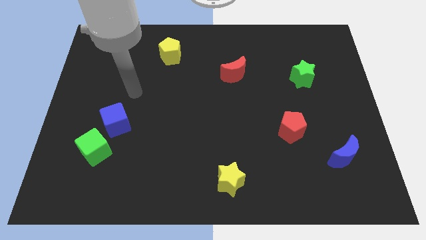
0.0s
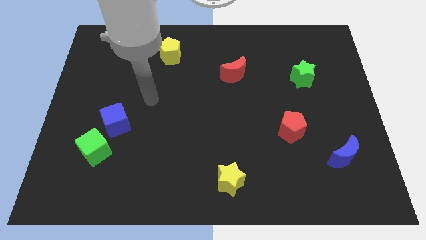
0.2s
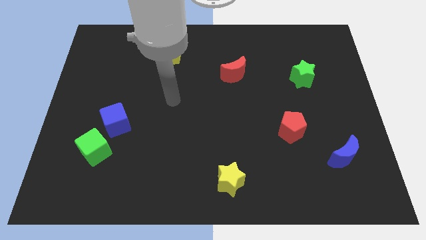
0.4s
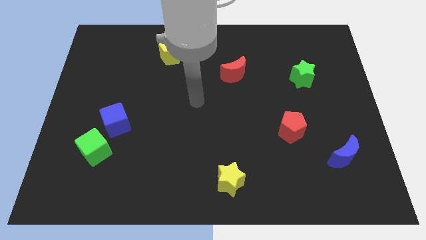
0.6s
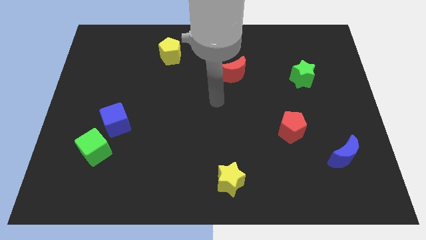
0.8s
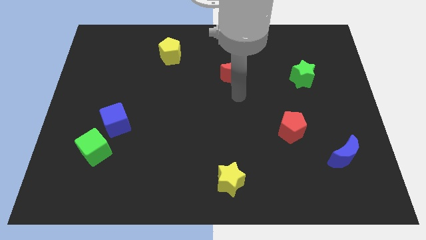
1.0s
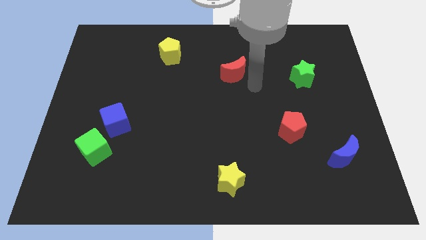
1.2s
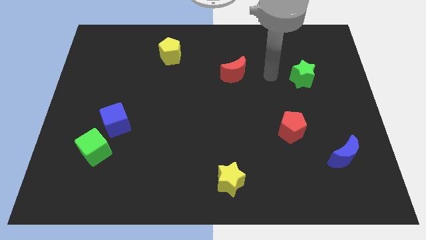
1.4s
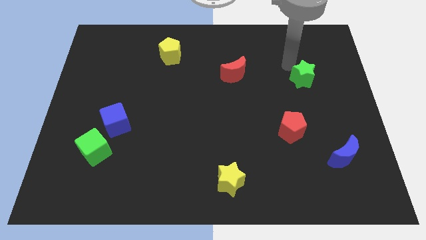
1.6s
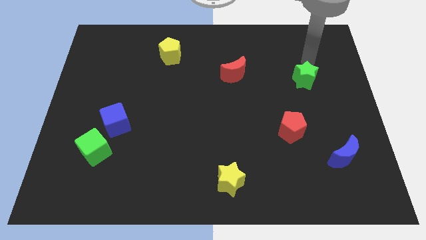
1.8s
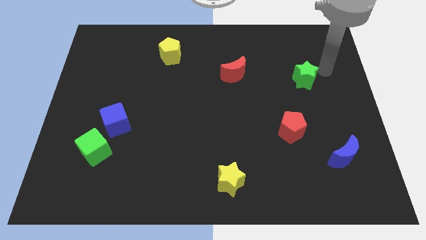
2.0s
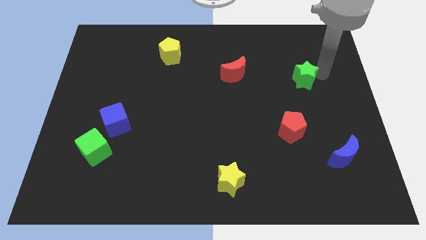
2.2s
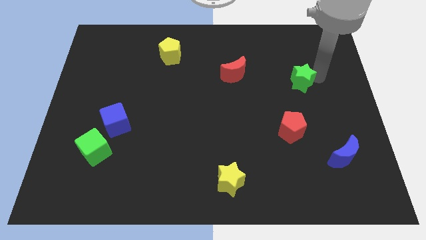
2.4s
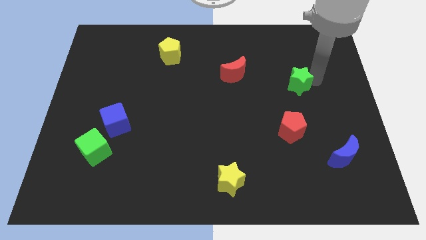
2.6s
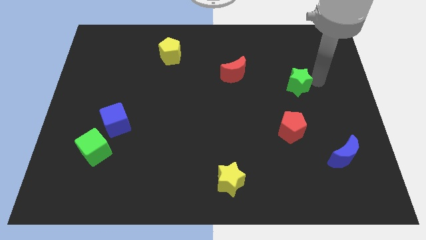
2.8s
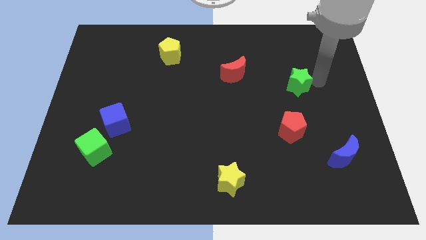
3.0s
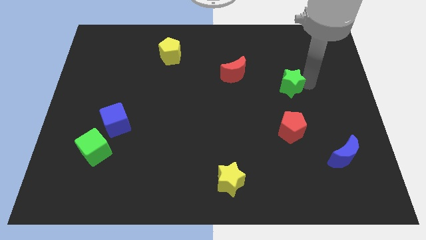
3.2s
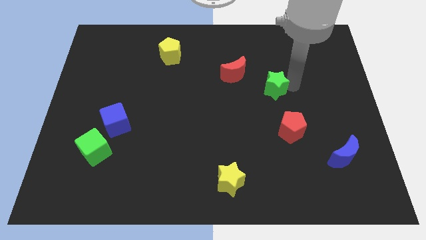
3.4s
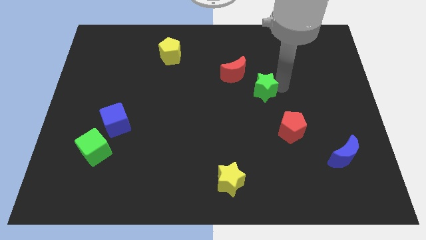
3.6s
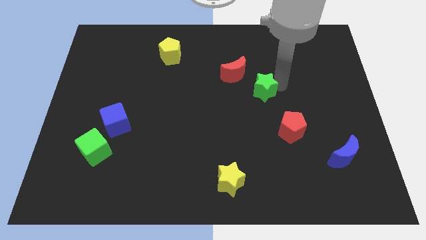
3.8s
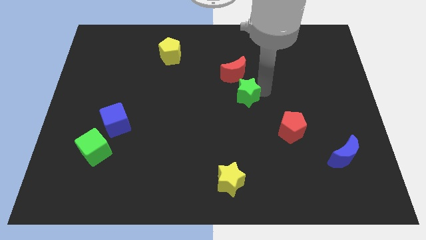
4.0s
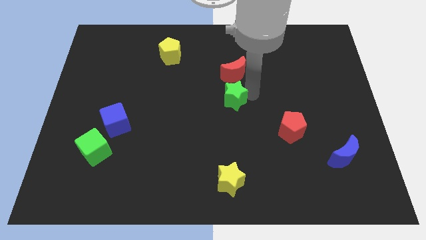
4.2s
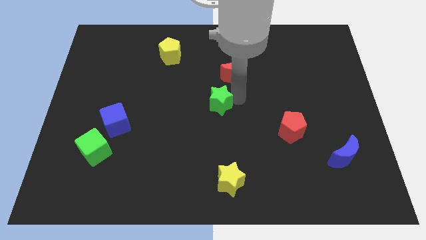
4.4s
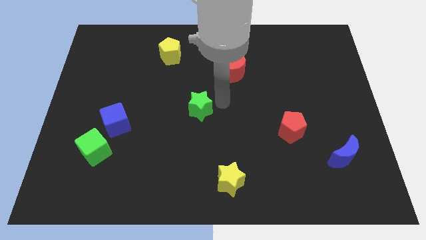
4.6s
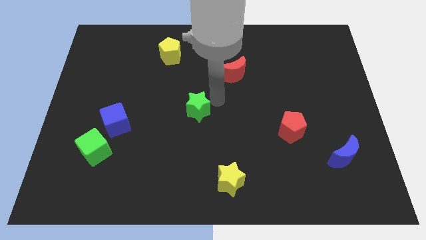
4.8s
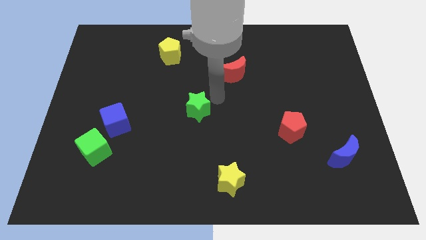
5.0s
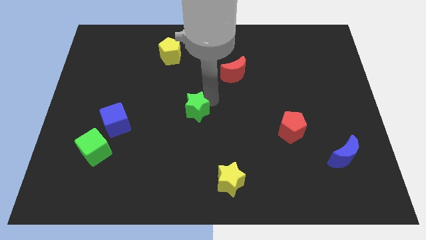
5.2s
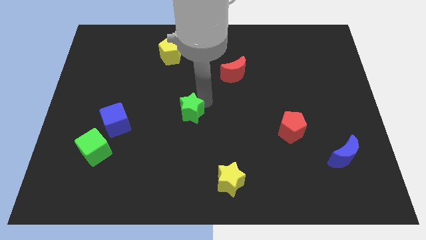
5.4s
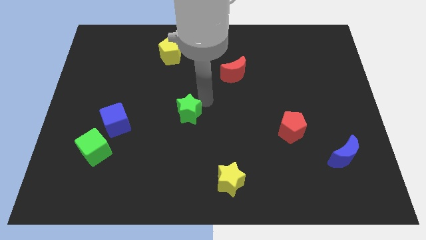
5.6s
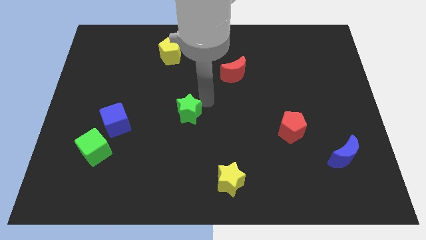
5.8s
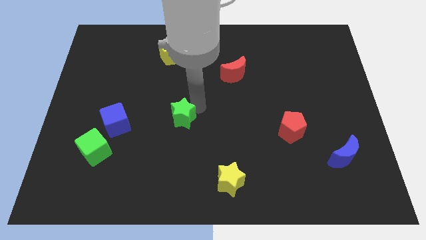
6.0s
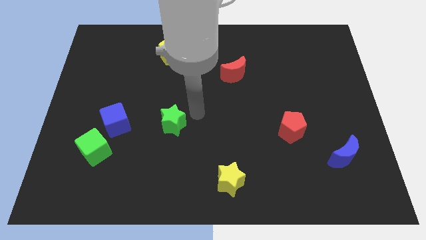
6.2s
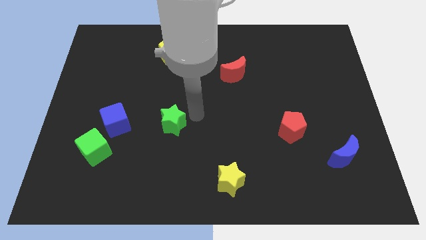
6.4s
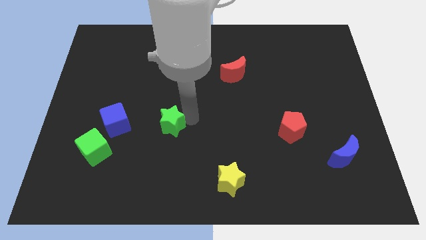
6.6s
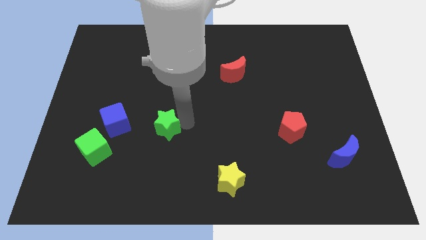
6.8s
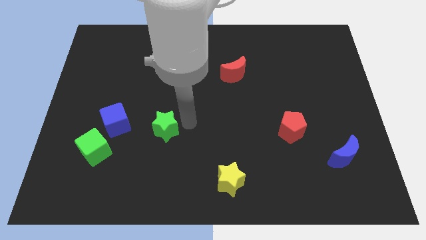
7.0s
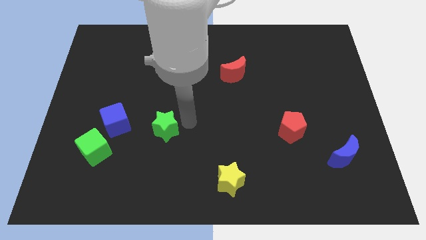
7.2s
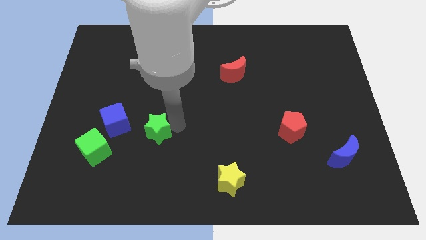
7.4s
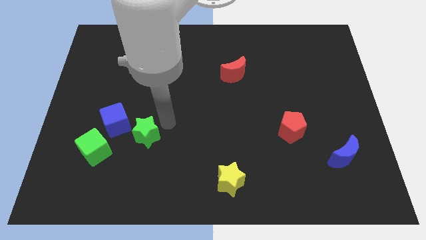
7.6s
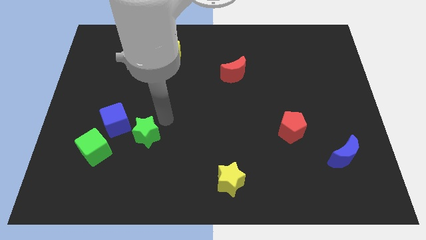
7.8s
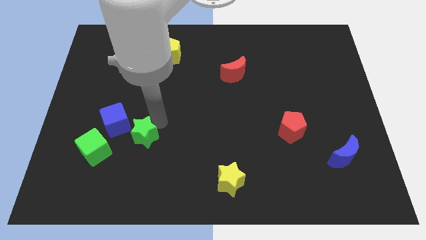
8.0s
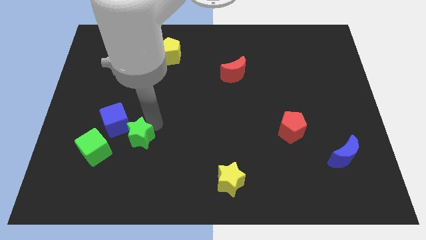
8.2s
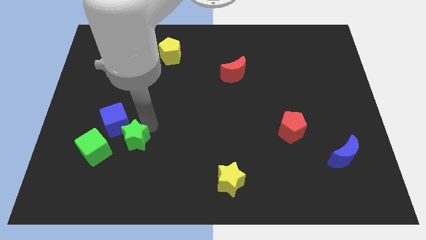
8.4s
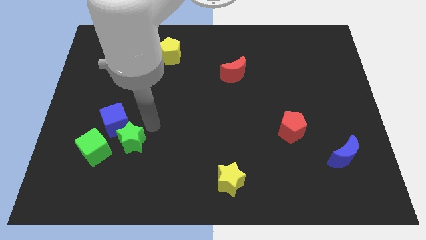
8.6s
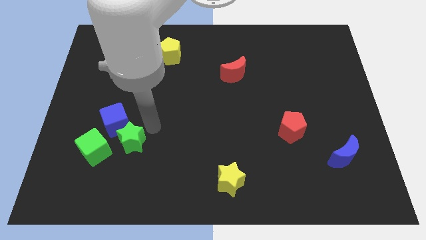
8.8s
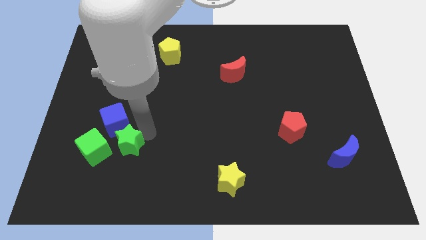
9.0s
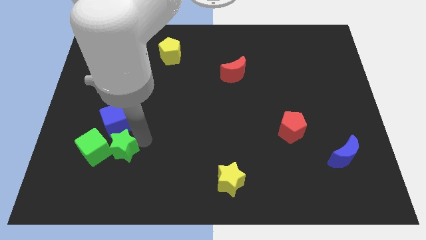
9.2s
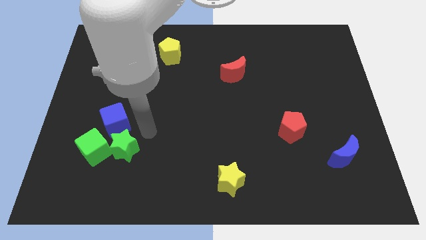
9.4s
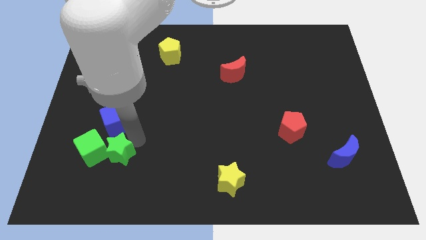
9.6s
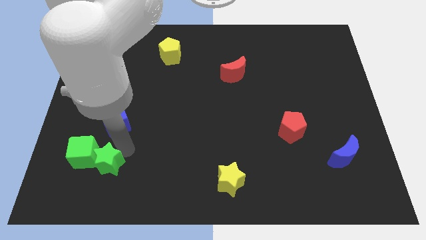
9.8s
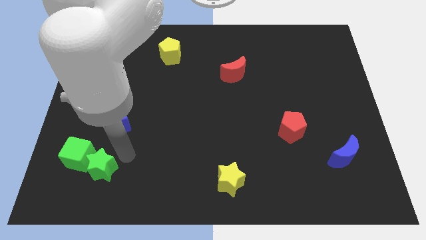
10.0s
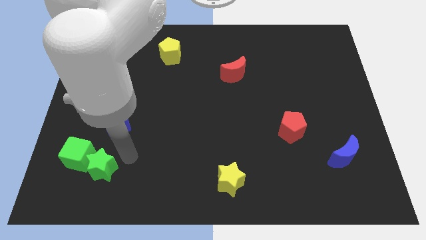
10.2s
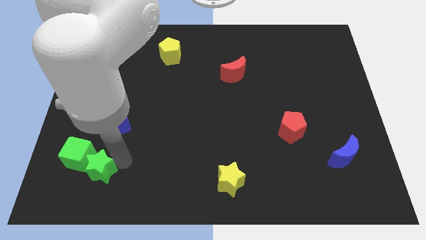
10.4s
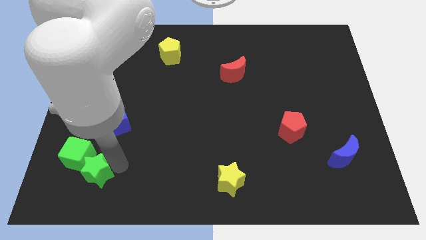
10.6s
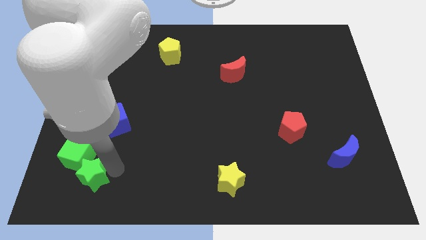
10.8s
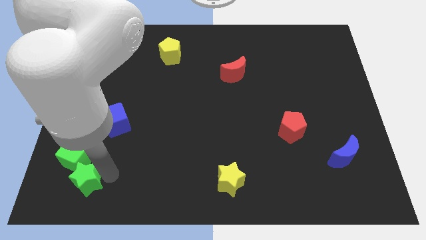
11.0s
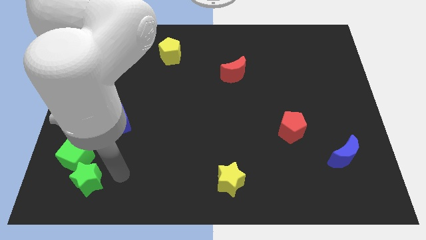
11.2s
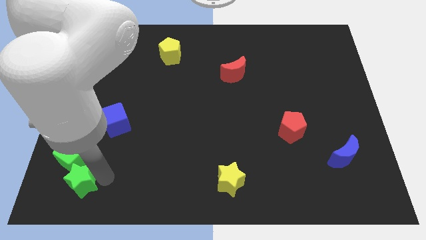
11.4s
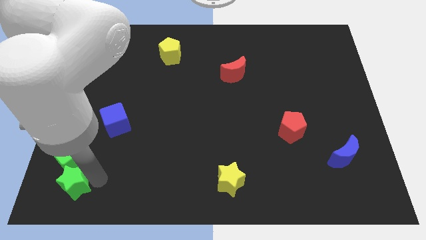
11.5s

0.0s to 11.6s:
put the green star to the bottom left corner

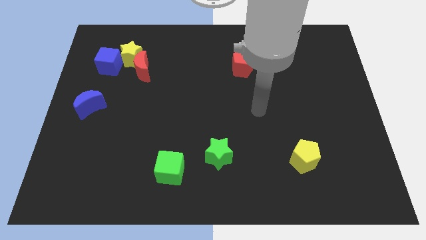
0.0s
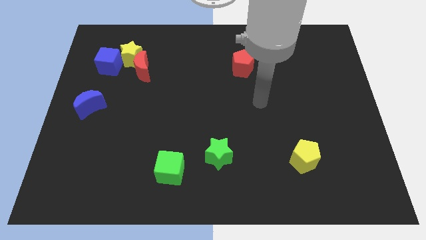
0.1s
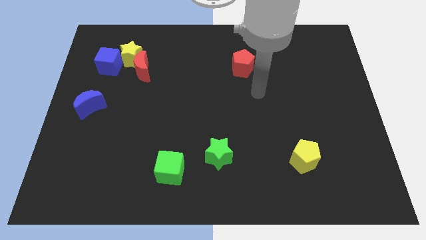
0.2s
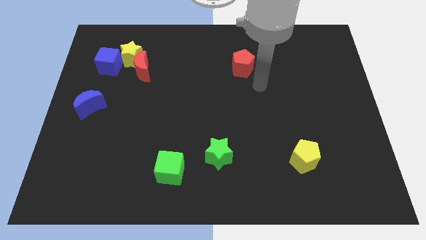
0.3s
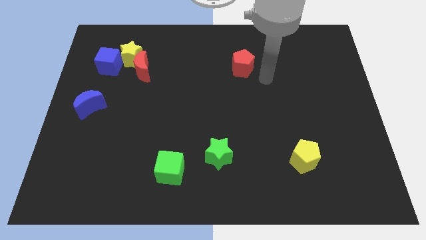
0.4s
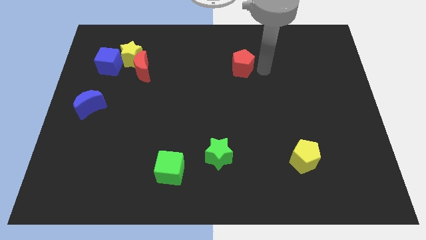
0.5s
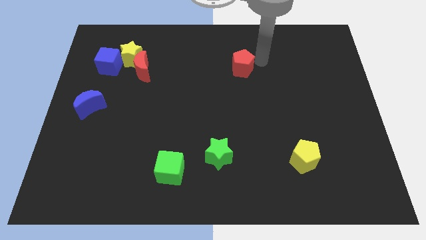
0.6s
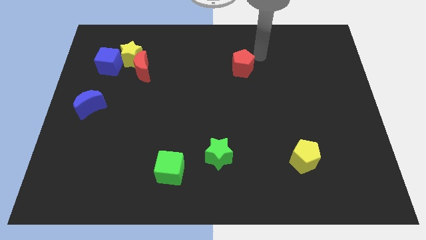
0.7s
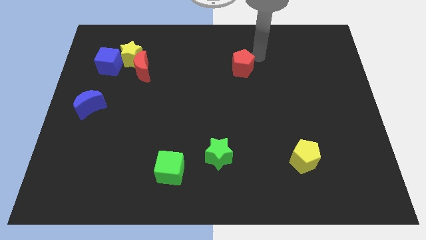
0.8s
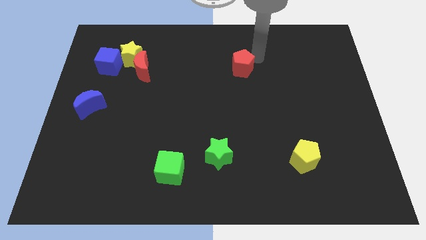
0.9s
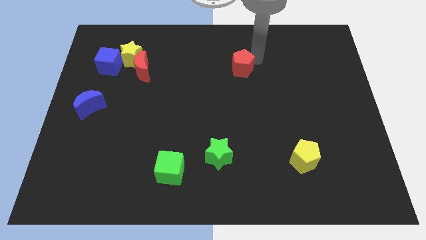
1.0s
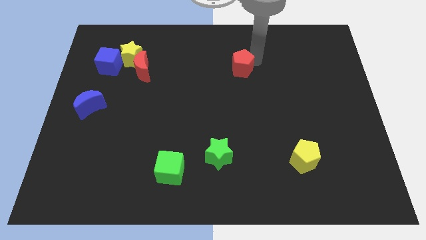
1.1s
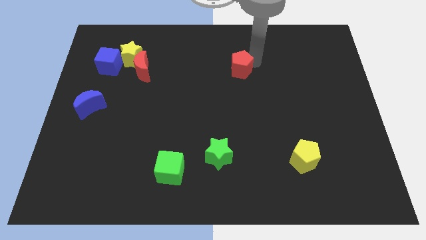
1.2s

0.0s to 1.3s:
slide the red pentagon to the center
